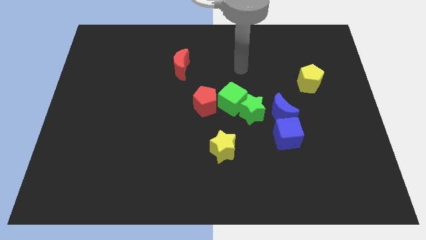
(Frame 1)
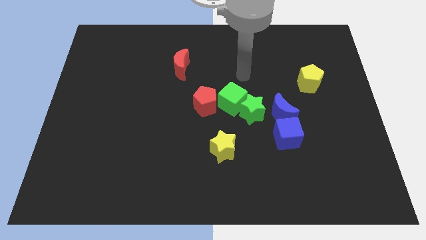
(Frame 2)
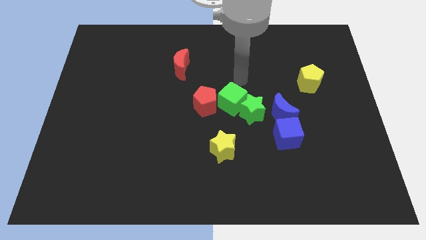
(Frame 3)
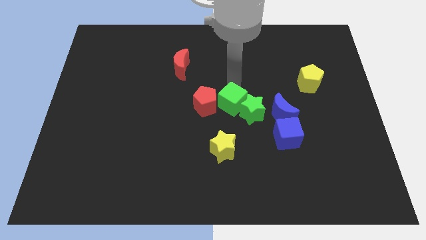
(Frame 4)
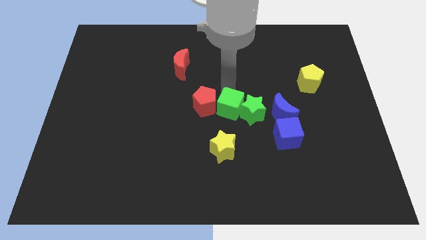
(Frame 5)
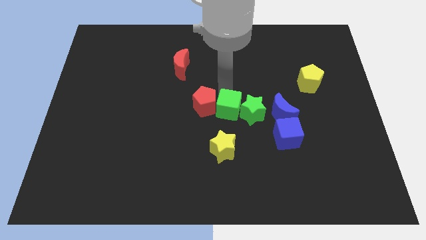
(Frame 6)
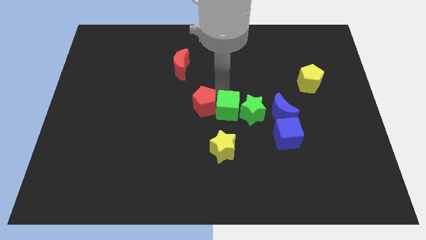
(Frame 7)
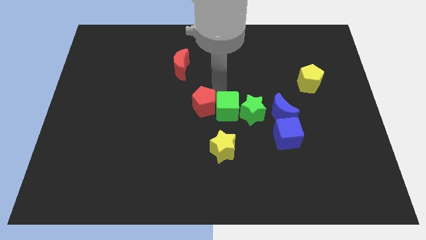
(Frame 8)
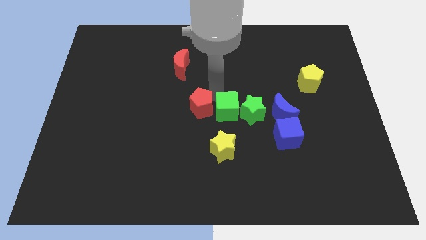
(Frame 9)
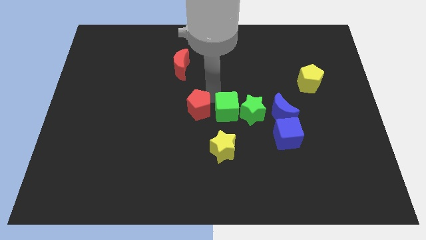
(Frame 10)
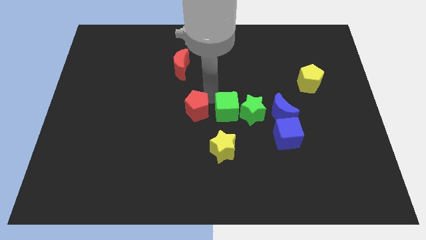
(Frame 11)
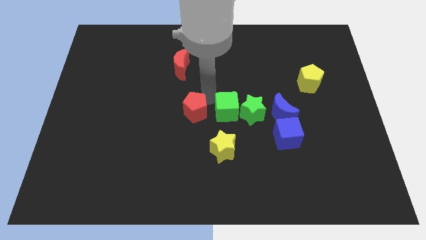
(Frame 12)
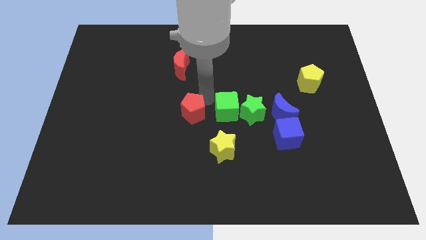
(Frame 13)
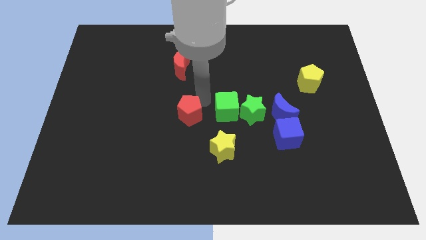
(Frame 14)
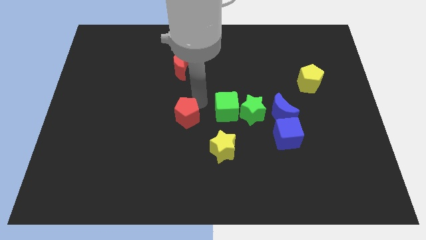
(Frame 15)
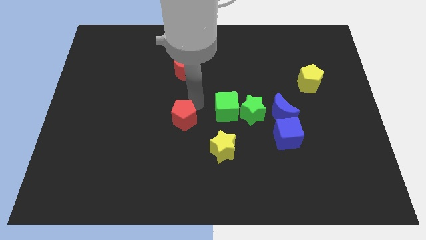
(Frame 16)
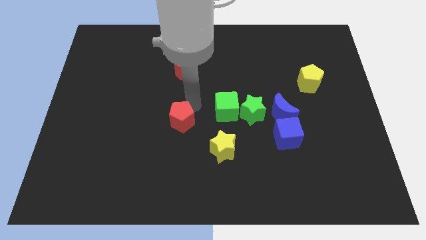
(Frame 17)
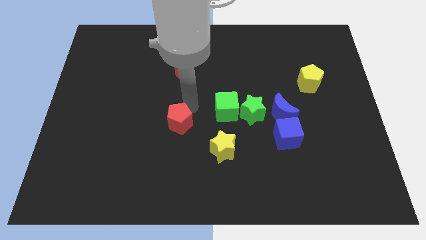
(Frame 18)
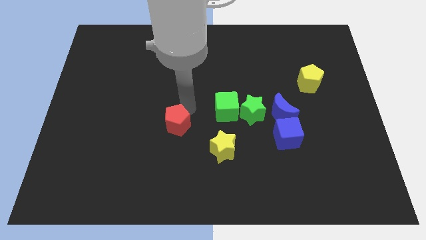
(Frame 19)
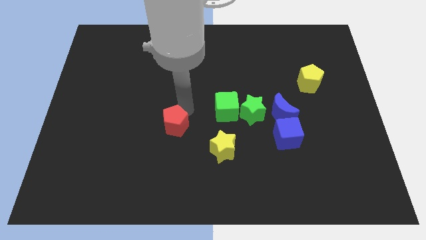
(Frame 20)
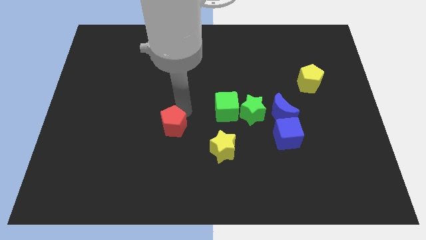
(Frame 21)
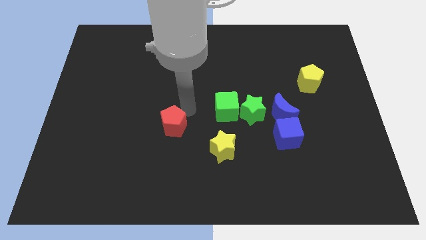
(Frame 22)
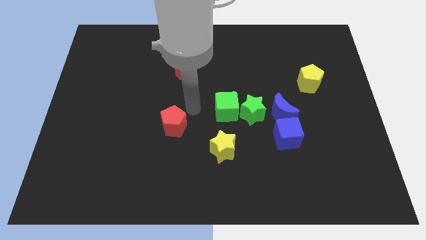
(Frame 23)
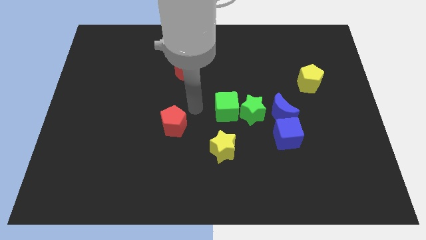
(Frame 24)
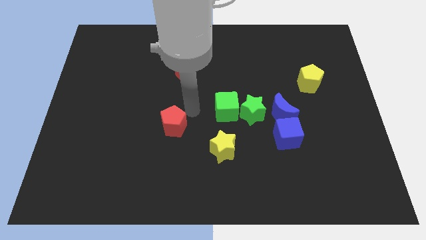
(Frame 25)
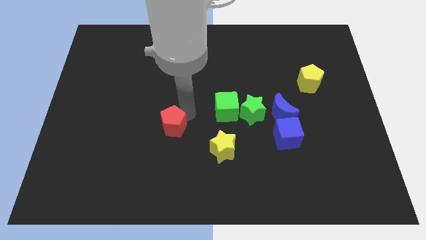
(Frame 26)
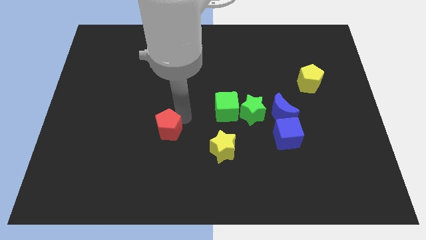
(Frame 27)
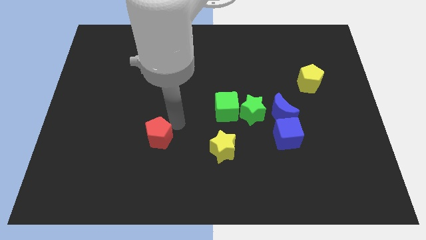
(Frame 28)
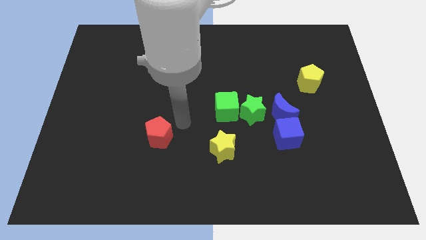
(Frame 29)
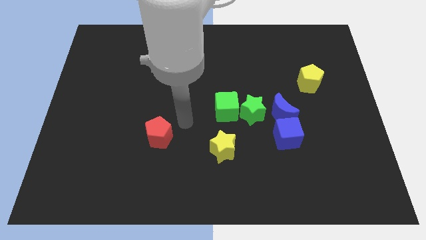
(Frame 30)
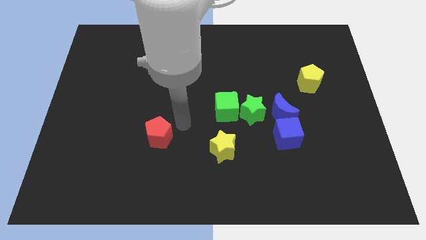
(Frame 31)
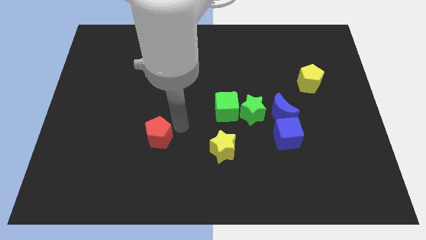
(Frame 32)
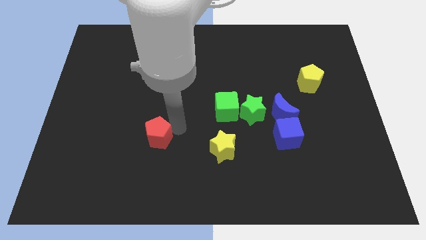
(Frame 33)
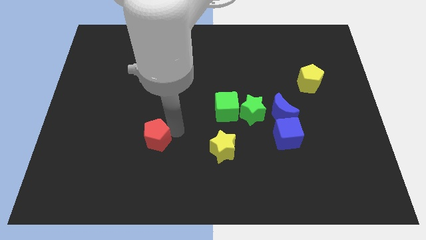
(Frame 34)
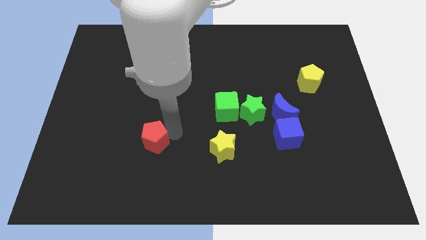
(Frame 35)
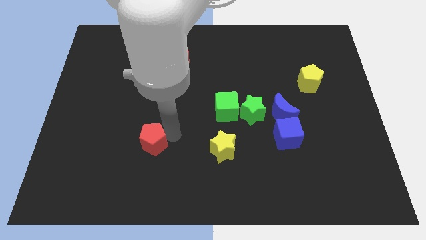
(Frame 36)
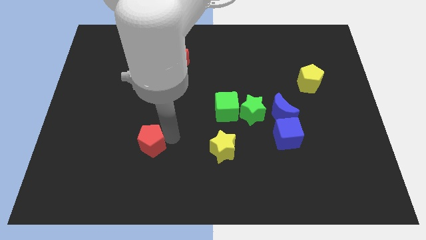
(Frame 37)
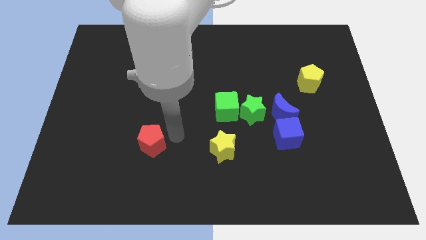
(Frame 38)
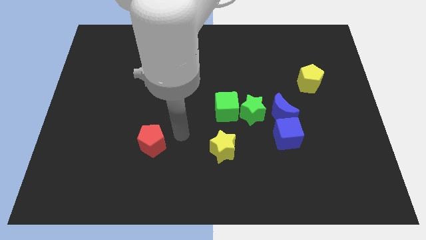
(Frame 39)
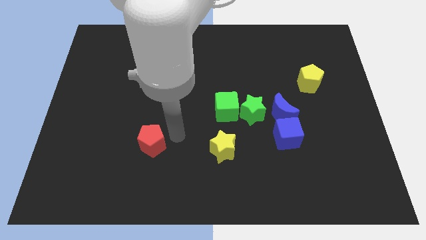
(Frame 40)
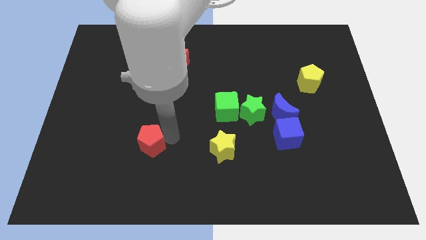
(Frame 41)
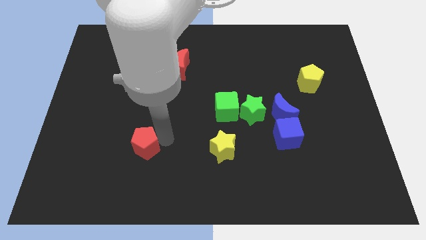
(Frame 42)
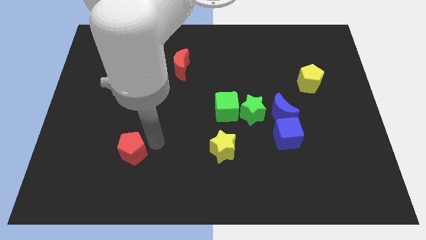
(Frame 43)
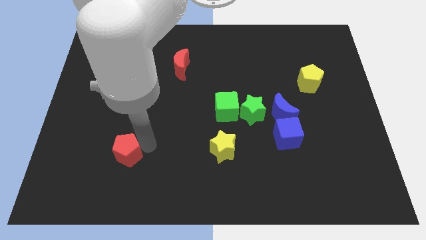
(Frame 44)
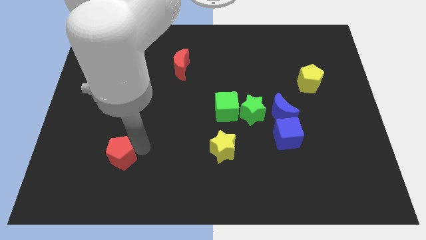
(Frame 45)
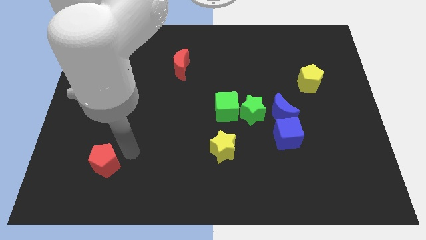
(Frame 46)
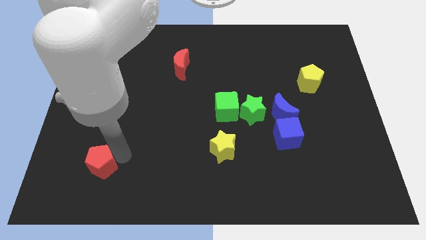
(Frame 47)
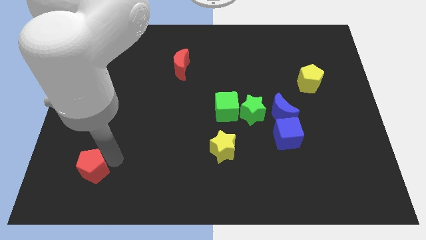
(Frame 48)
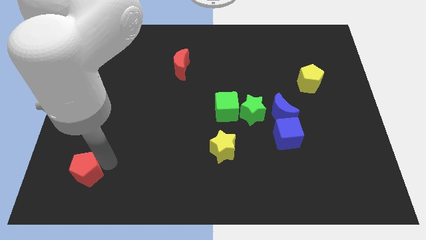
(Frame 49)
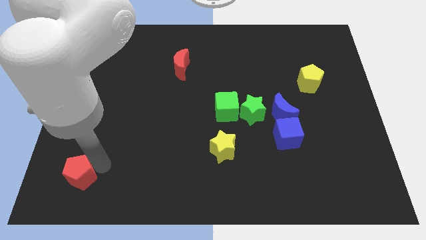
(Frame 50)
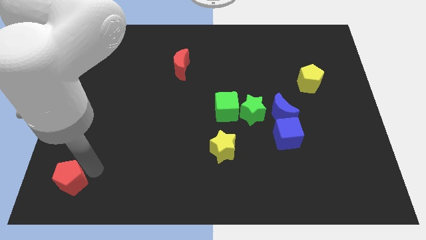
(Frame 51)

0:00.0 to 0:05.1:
move the red pentagon to the bottom left corner

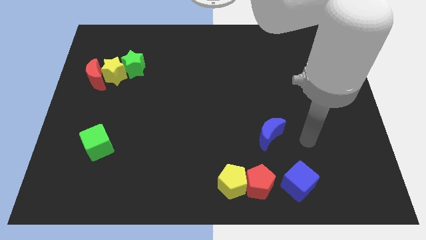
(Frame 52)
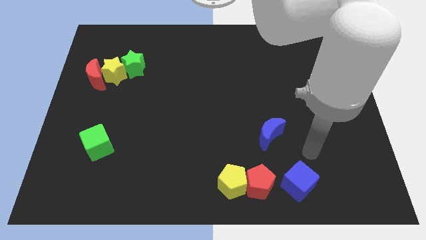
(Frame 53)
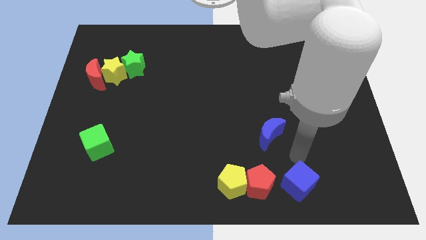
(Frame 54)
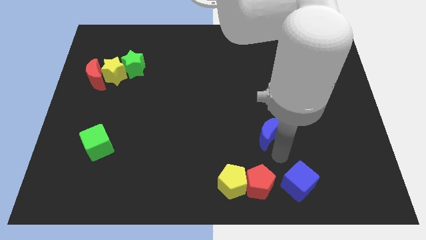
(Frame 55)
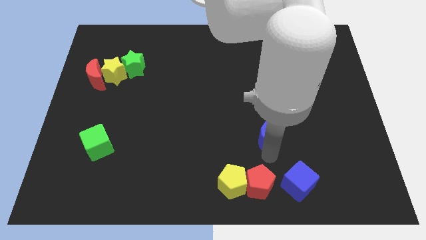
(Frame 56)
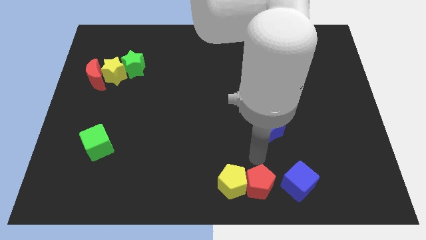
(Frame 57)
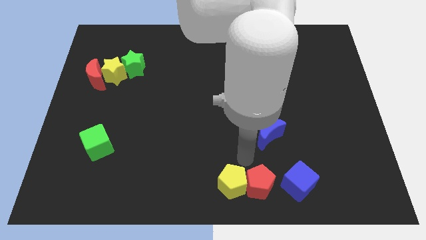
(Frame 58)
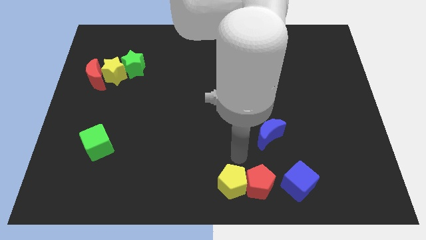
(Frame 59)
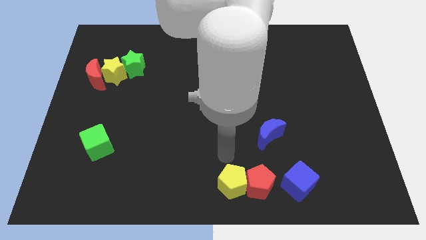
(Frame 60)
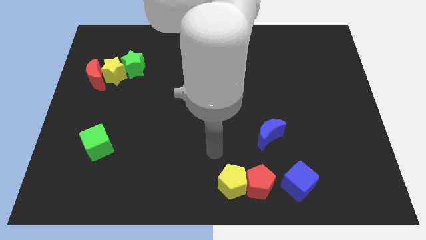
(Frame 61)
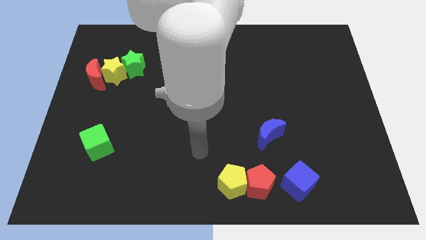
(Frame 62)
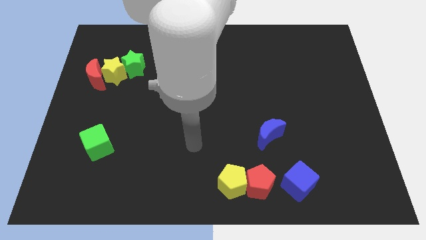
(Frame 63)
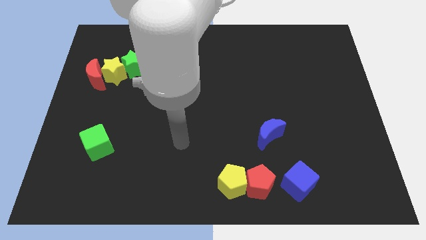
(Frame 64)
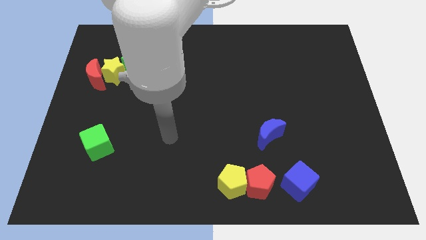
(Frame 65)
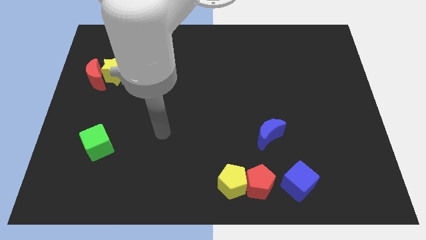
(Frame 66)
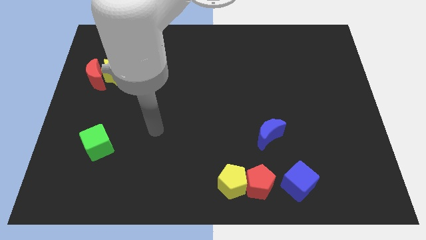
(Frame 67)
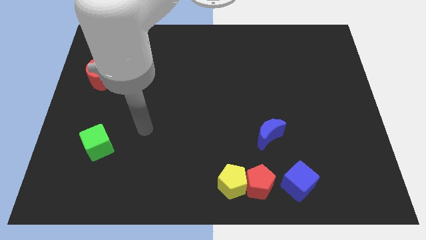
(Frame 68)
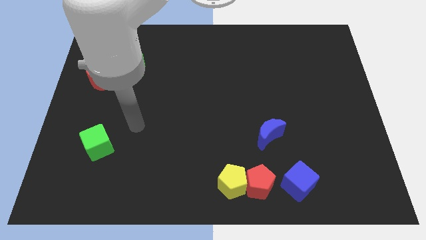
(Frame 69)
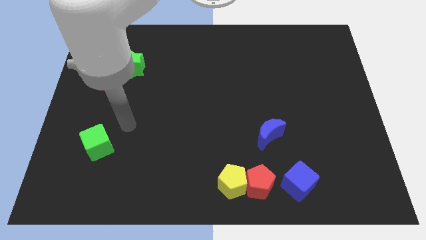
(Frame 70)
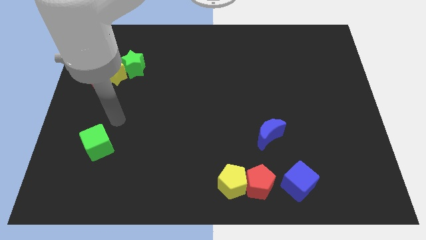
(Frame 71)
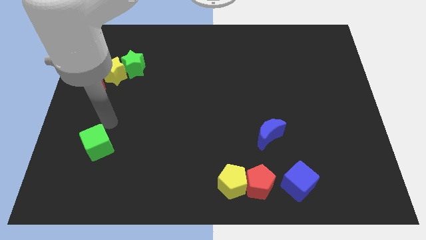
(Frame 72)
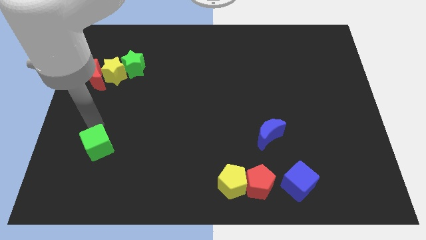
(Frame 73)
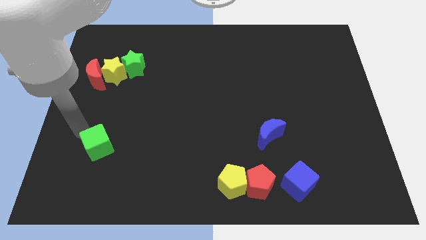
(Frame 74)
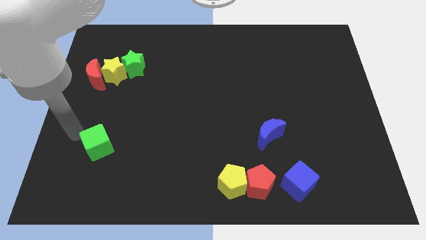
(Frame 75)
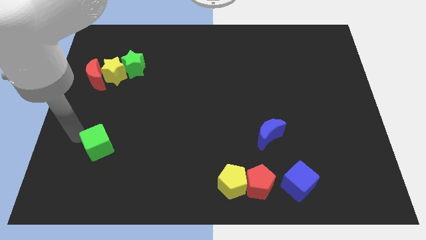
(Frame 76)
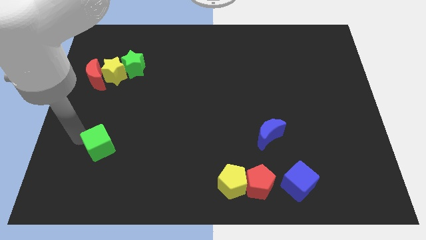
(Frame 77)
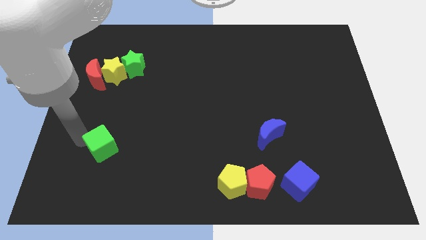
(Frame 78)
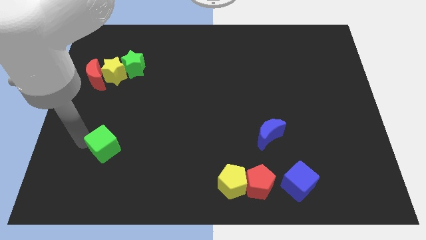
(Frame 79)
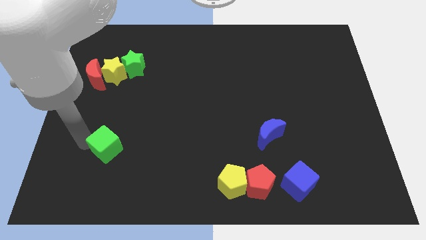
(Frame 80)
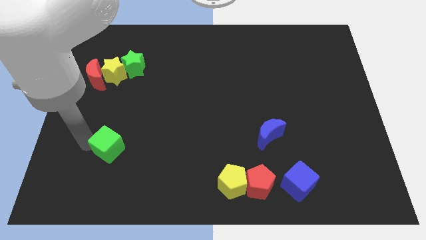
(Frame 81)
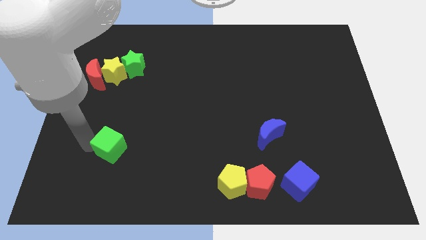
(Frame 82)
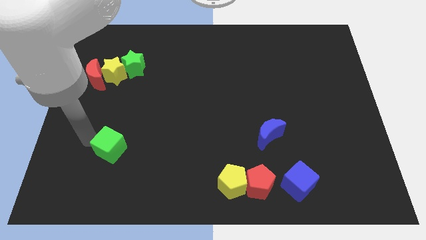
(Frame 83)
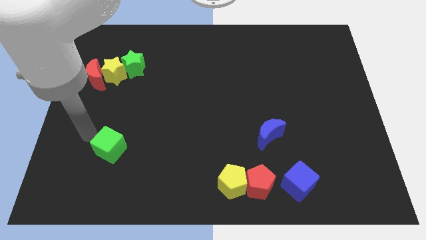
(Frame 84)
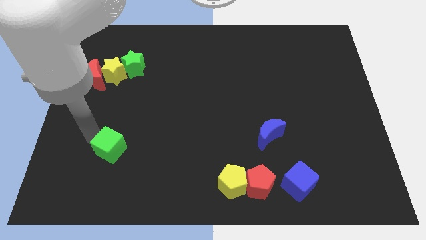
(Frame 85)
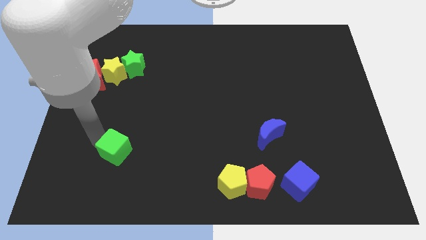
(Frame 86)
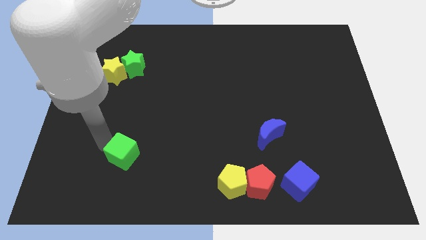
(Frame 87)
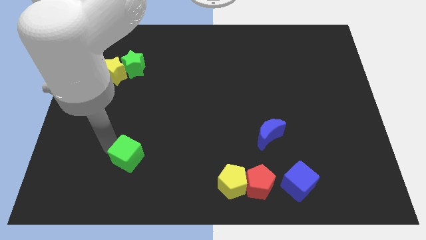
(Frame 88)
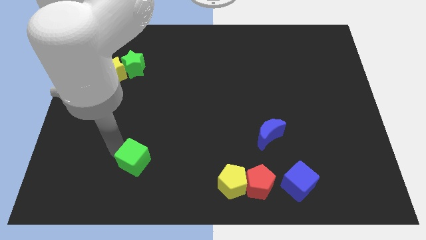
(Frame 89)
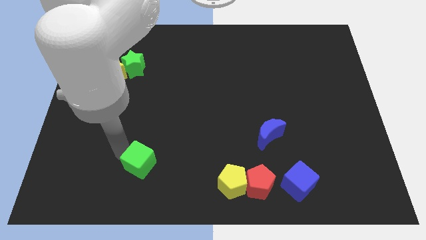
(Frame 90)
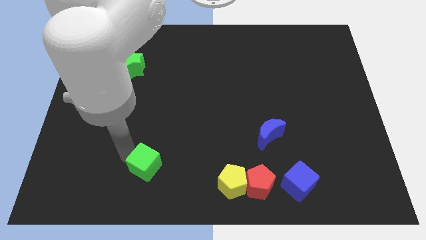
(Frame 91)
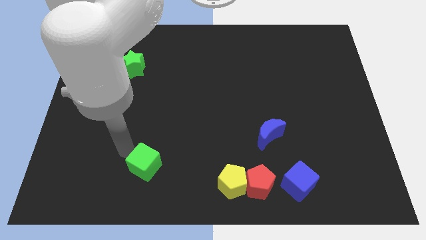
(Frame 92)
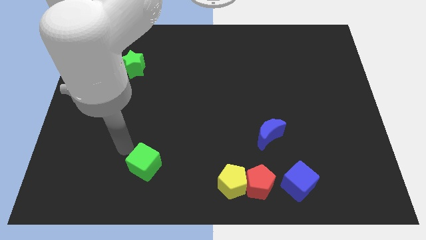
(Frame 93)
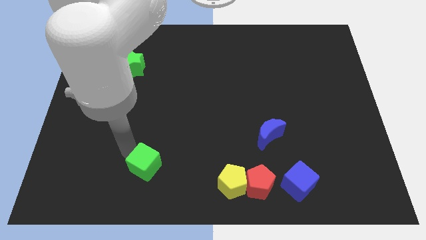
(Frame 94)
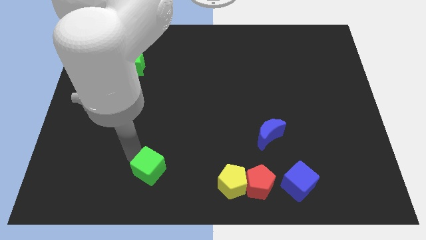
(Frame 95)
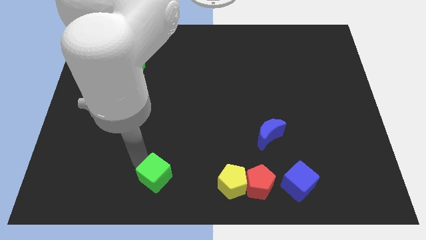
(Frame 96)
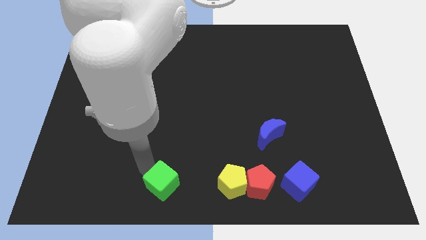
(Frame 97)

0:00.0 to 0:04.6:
push the green cube to the bottom
